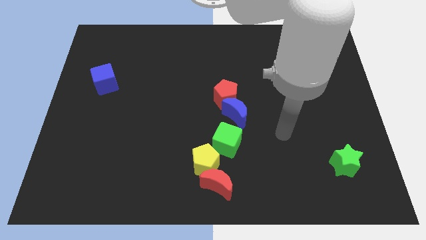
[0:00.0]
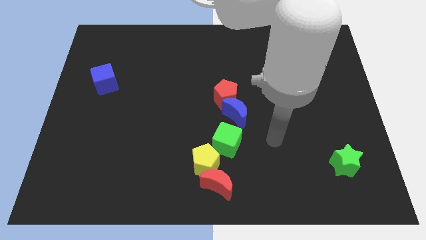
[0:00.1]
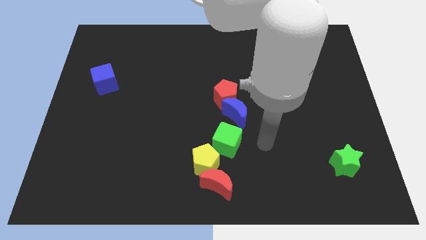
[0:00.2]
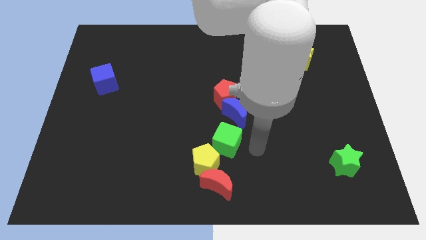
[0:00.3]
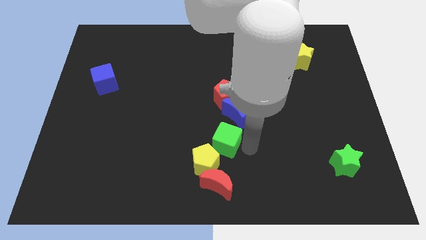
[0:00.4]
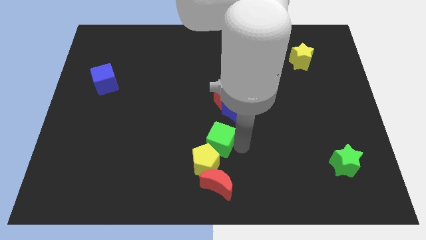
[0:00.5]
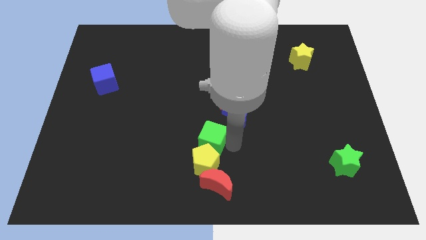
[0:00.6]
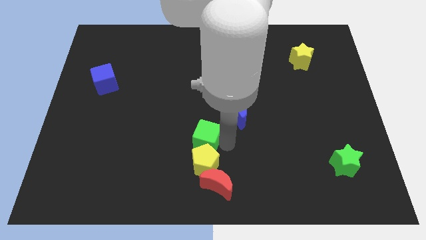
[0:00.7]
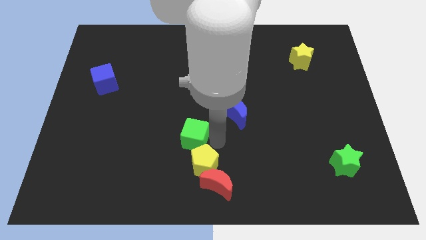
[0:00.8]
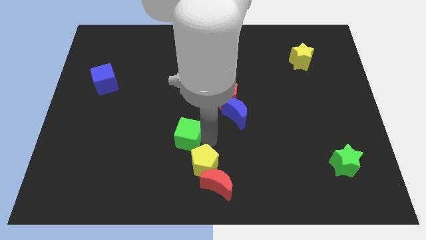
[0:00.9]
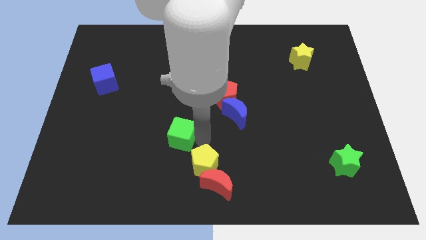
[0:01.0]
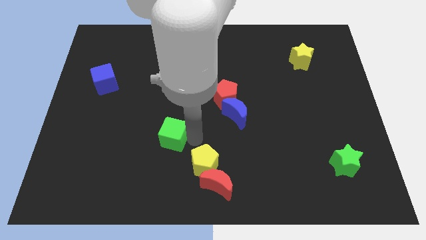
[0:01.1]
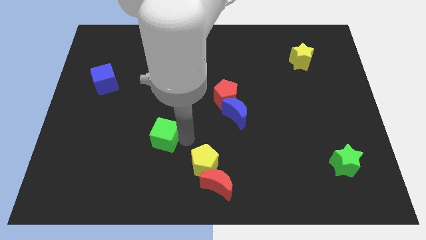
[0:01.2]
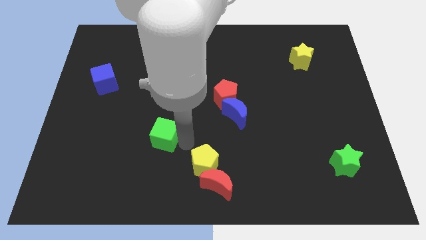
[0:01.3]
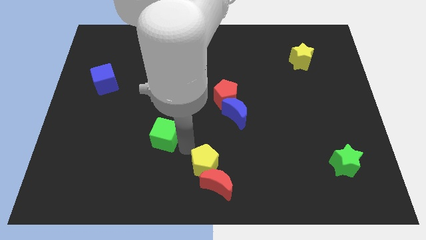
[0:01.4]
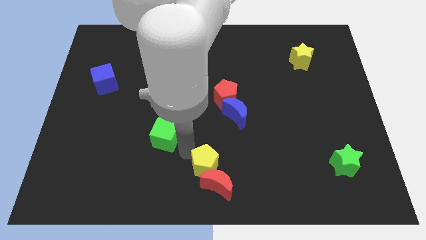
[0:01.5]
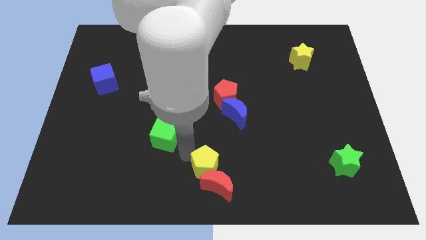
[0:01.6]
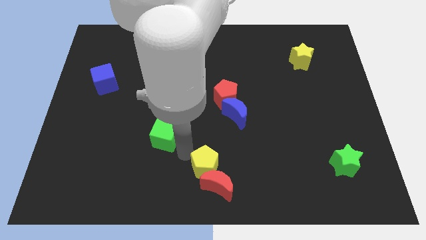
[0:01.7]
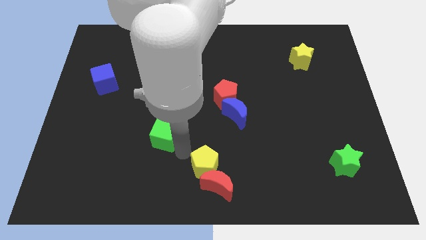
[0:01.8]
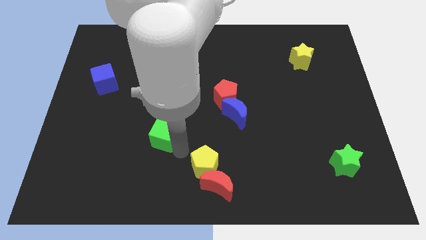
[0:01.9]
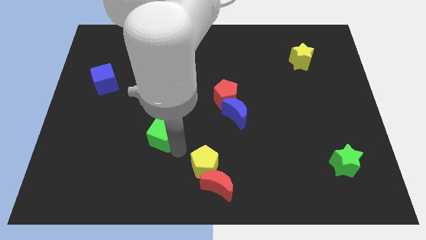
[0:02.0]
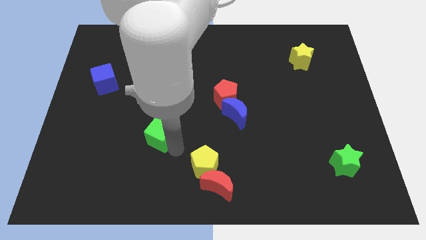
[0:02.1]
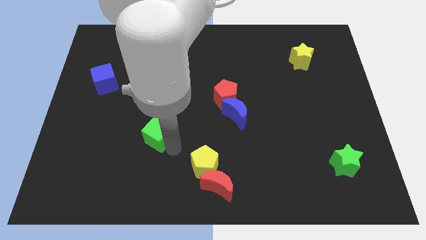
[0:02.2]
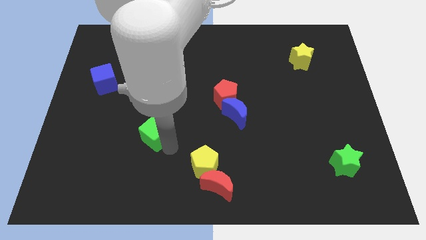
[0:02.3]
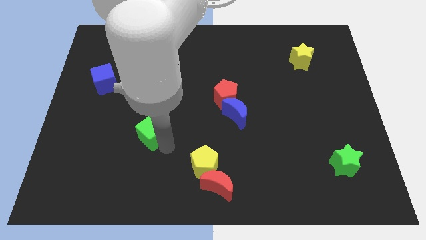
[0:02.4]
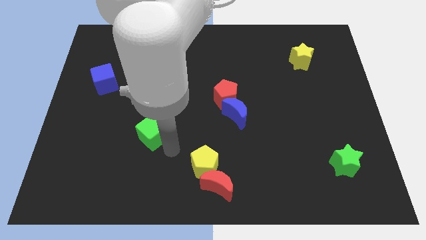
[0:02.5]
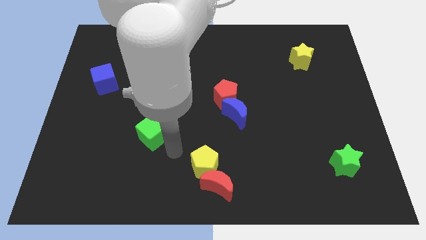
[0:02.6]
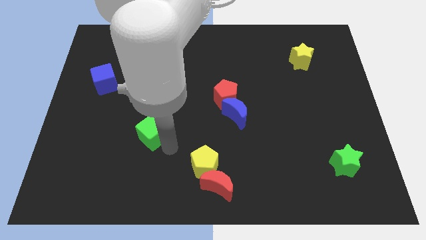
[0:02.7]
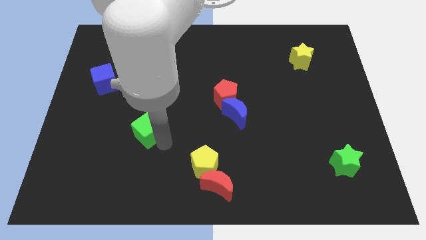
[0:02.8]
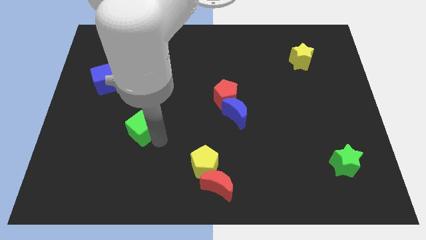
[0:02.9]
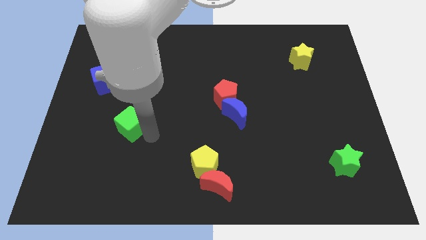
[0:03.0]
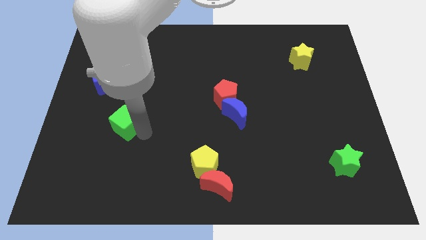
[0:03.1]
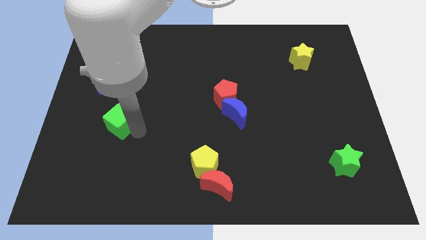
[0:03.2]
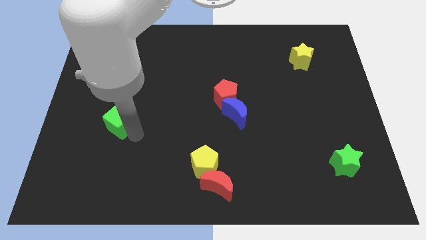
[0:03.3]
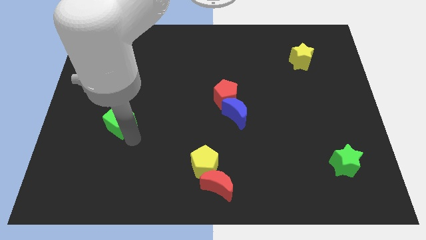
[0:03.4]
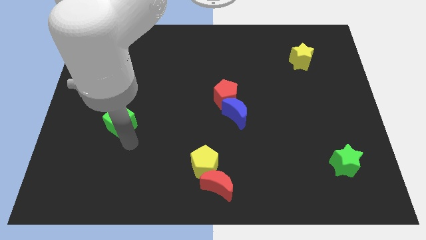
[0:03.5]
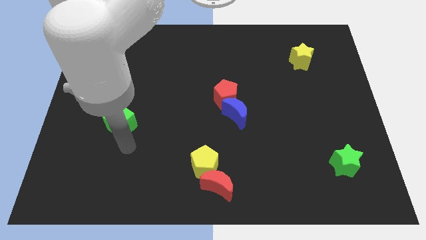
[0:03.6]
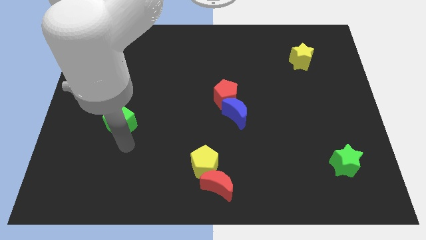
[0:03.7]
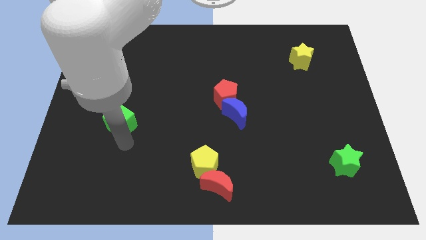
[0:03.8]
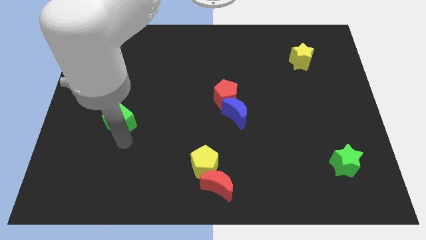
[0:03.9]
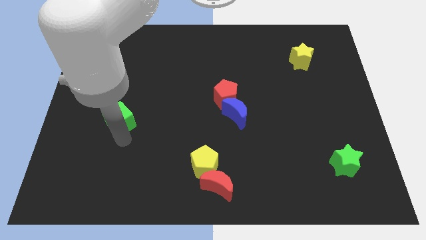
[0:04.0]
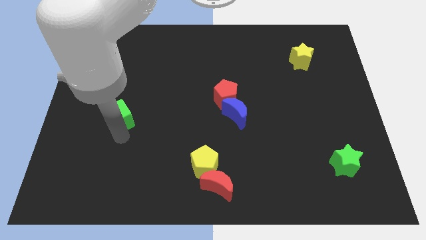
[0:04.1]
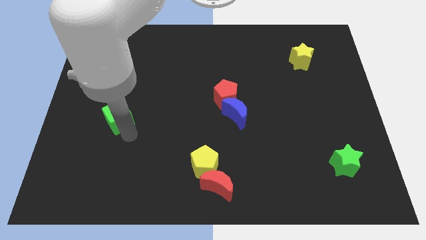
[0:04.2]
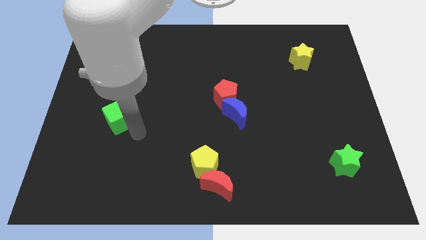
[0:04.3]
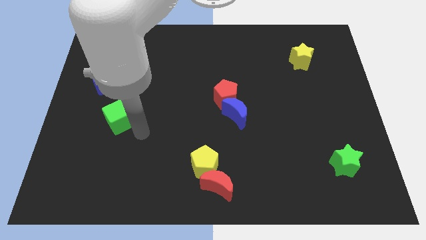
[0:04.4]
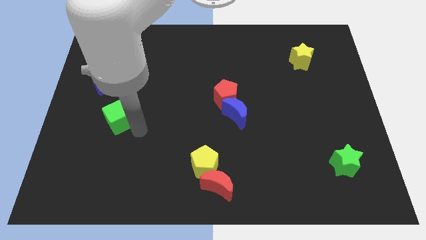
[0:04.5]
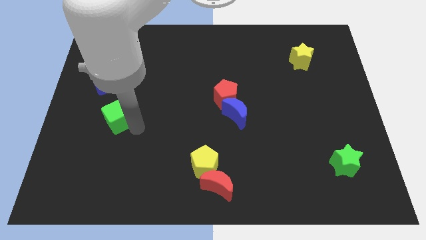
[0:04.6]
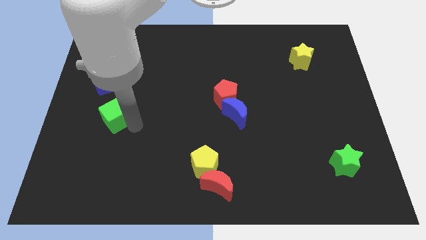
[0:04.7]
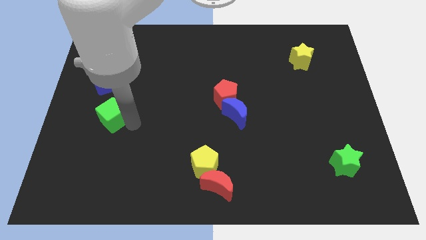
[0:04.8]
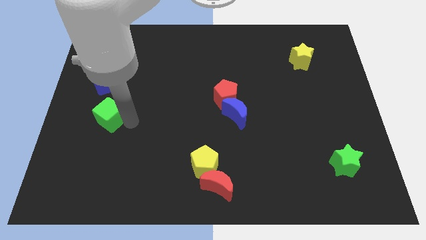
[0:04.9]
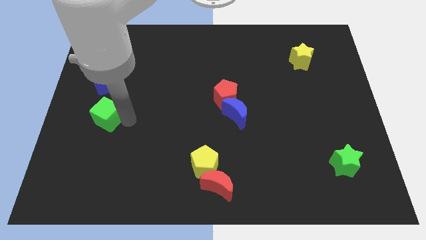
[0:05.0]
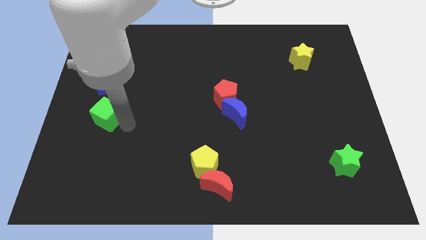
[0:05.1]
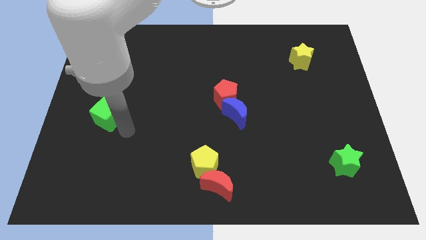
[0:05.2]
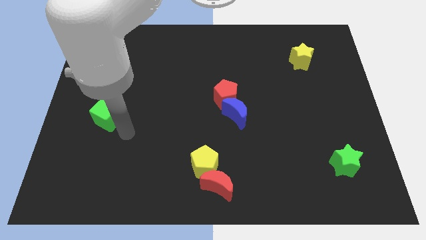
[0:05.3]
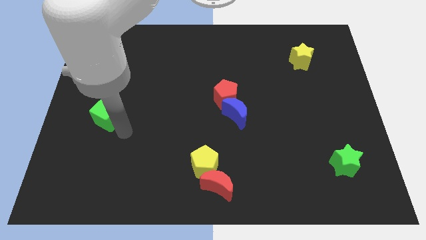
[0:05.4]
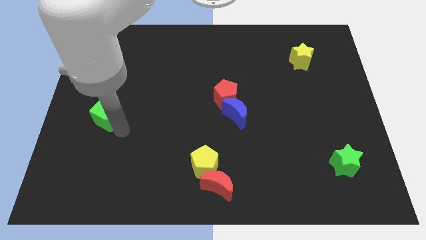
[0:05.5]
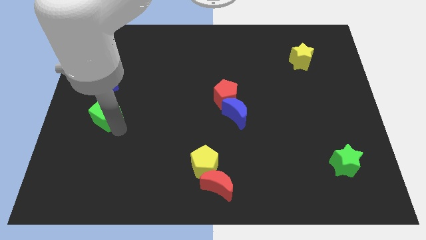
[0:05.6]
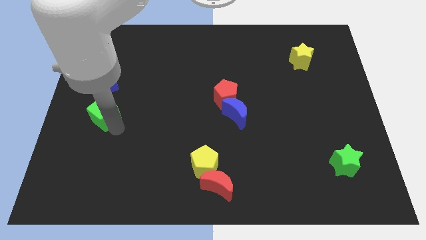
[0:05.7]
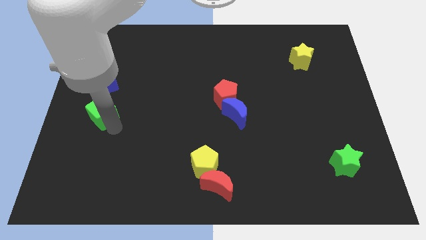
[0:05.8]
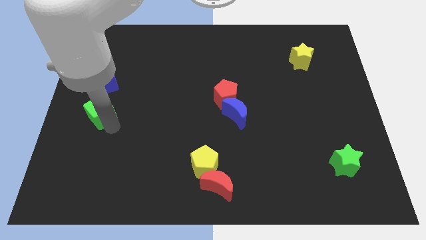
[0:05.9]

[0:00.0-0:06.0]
push the green cube to the left side of the board

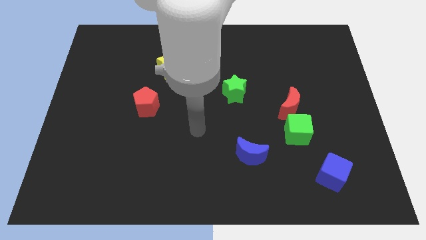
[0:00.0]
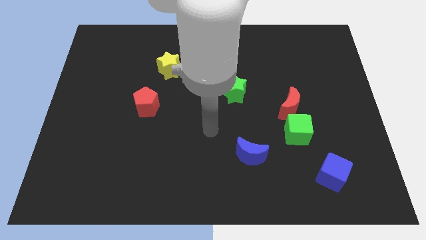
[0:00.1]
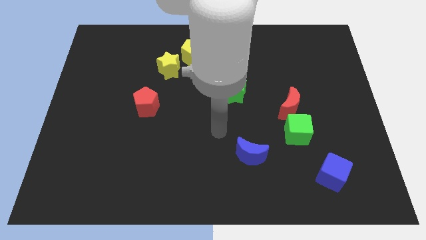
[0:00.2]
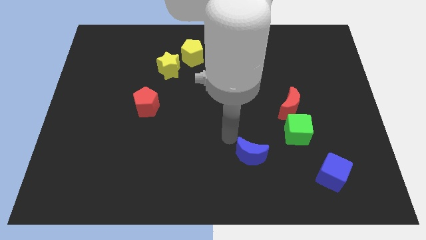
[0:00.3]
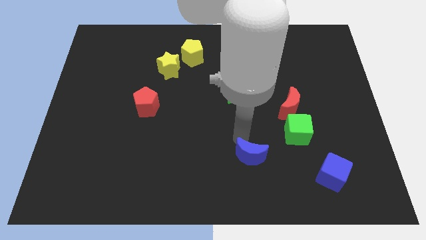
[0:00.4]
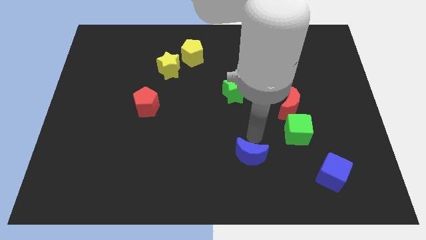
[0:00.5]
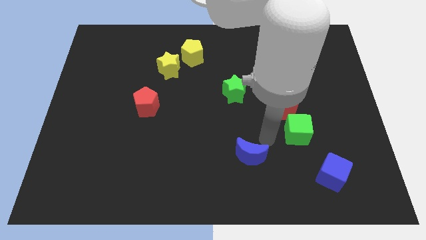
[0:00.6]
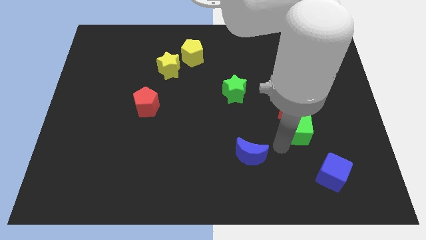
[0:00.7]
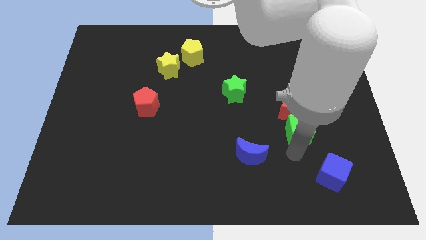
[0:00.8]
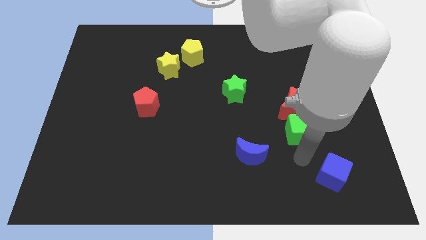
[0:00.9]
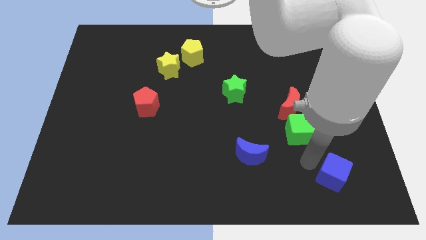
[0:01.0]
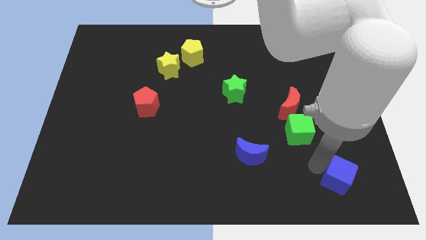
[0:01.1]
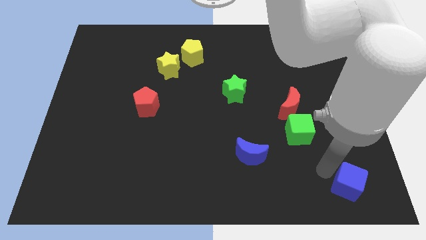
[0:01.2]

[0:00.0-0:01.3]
push the blue cube to the lower right corner
